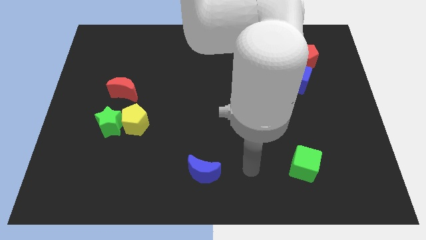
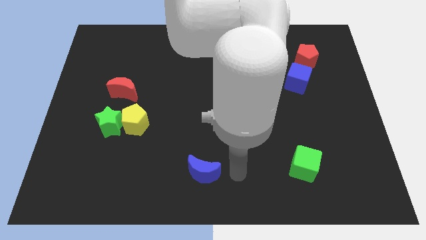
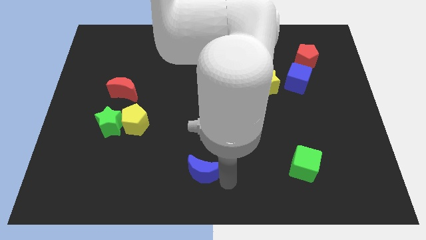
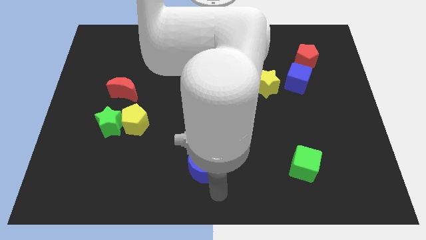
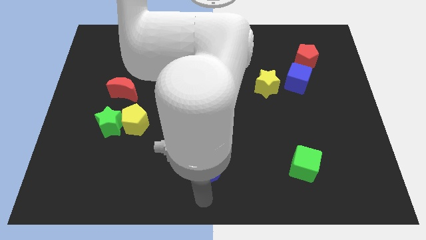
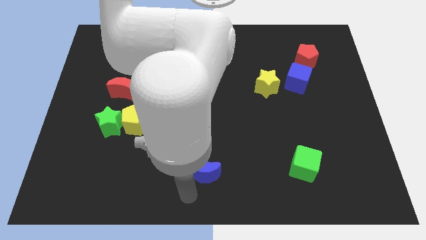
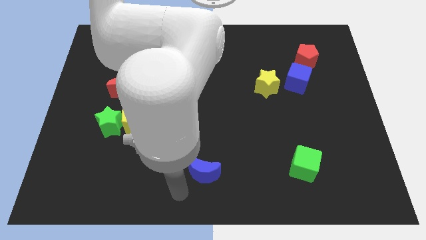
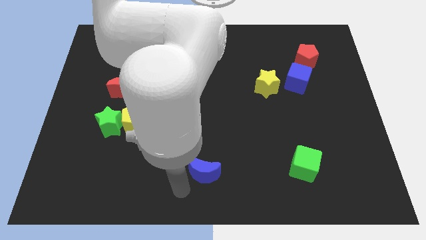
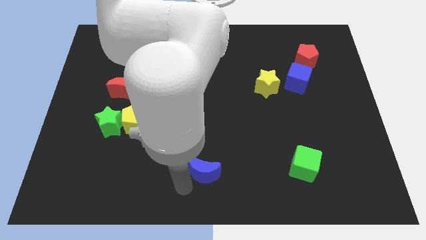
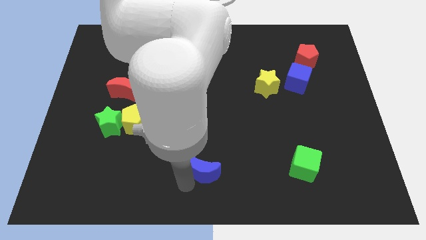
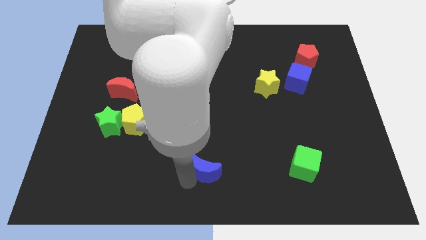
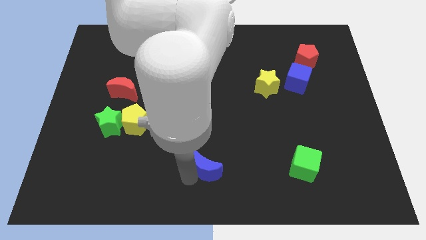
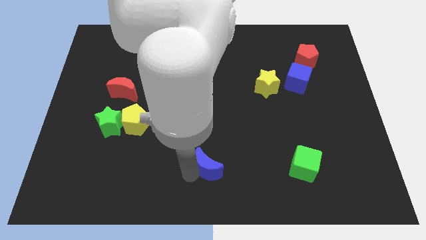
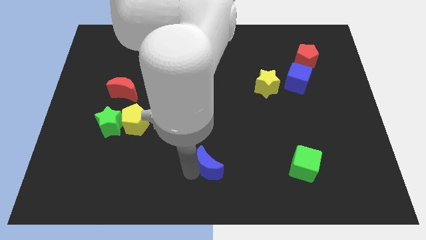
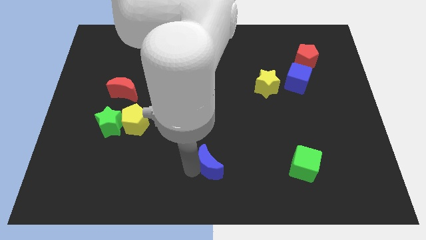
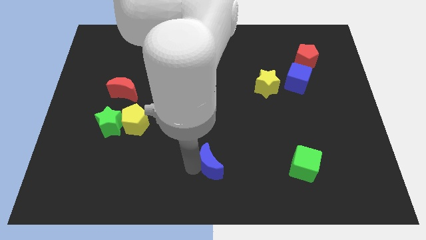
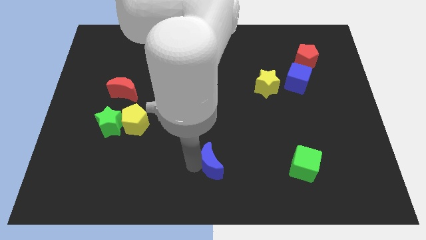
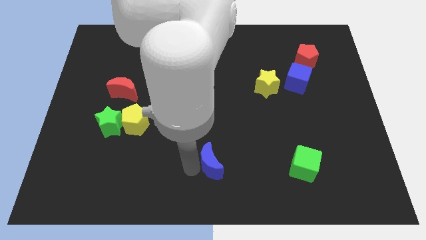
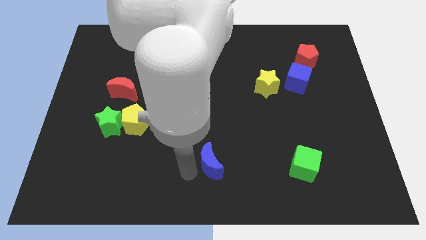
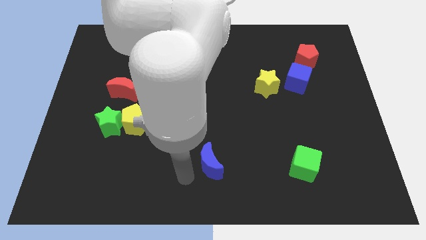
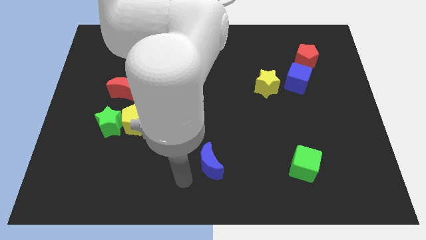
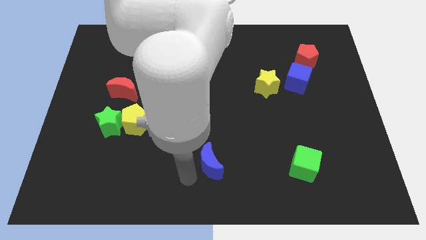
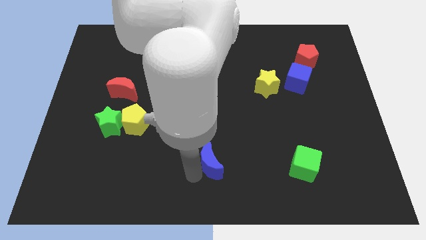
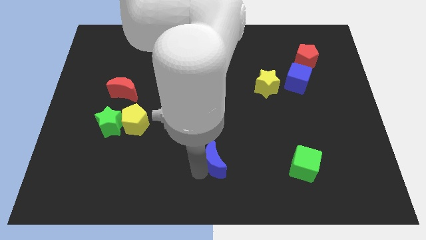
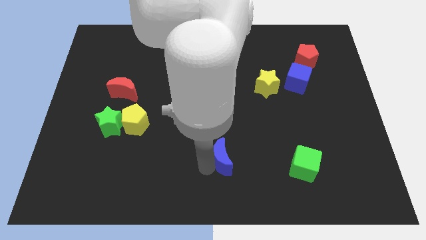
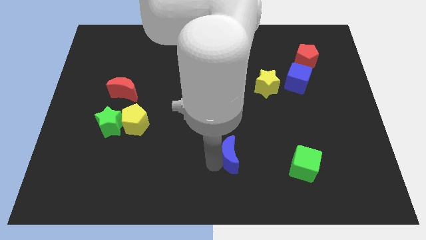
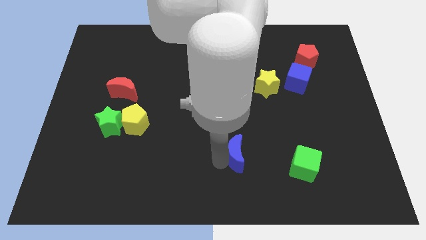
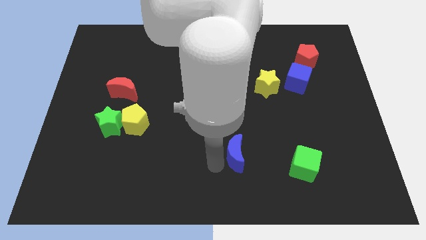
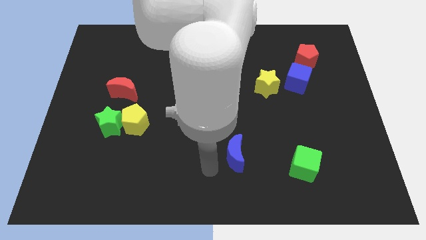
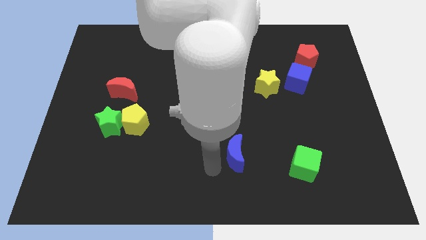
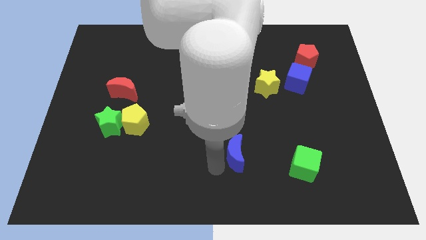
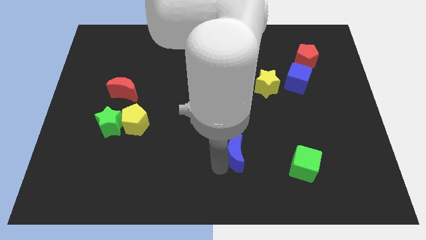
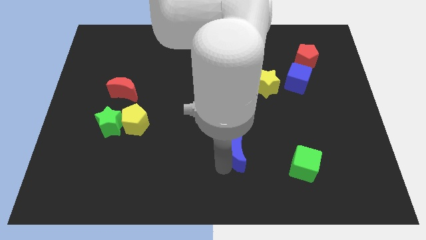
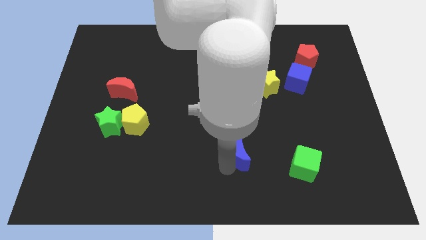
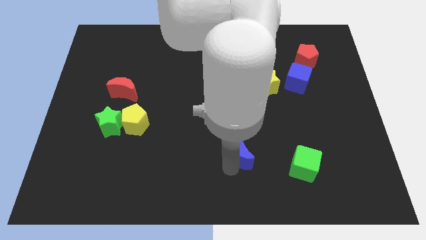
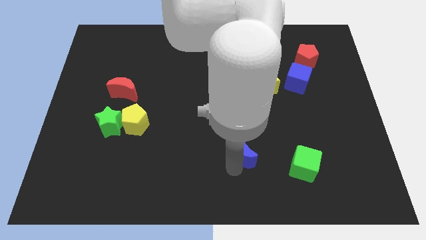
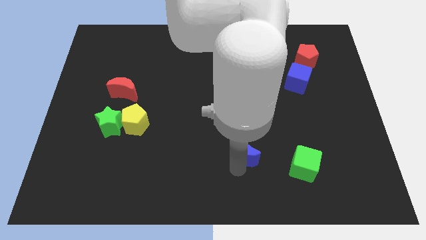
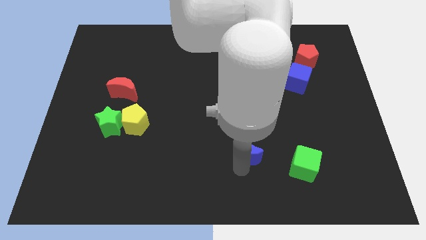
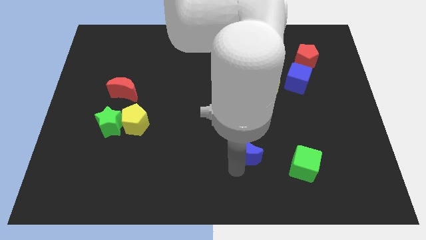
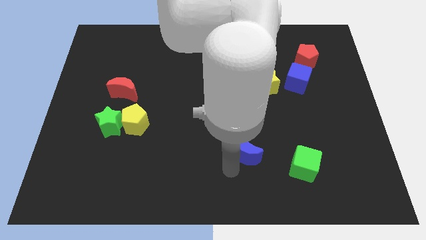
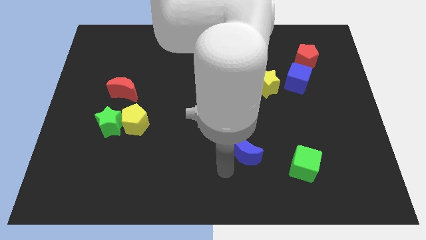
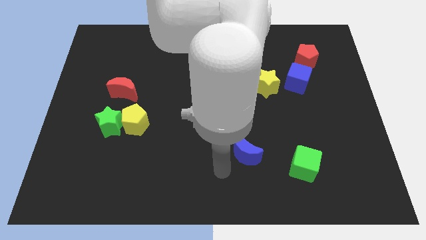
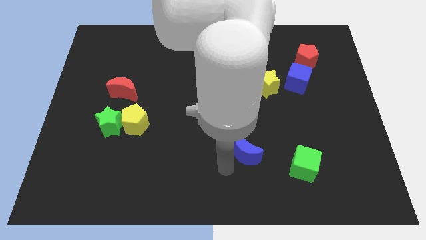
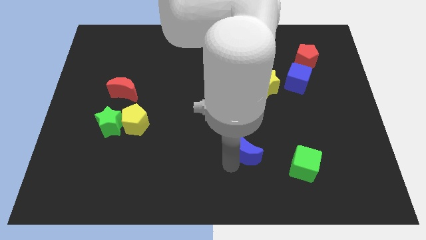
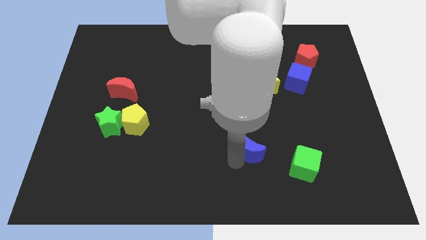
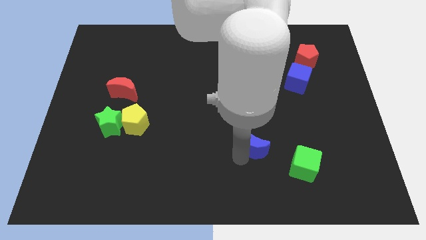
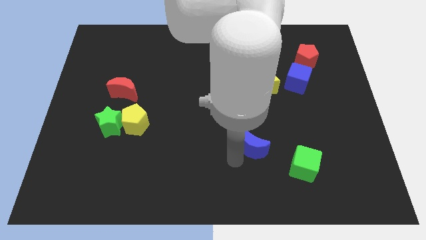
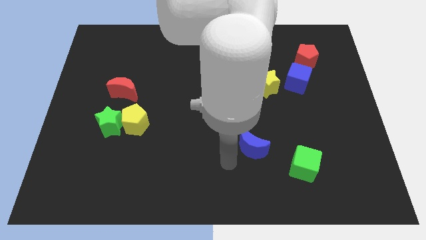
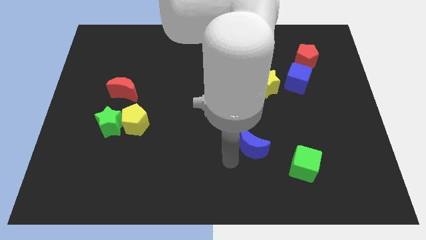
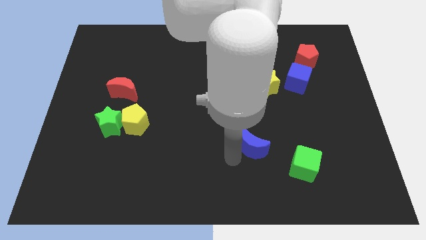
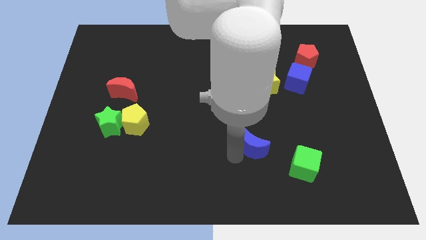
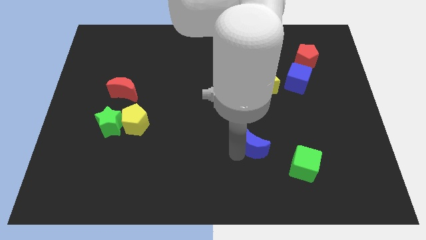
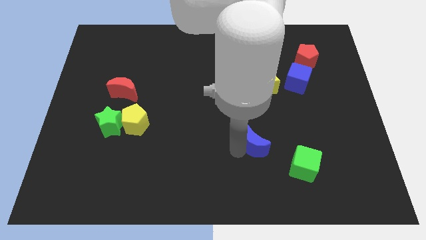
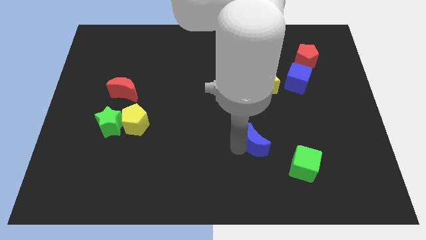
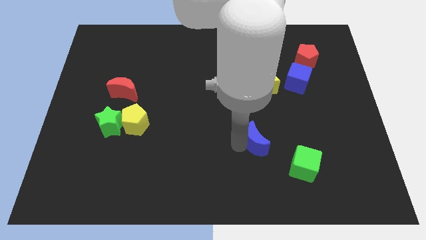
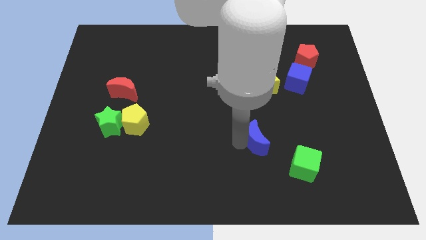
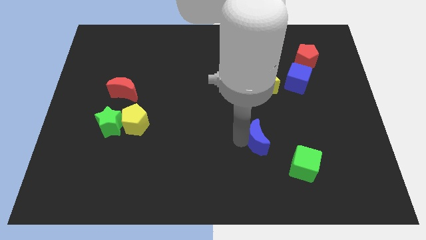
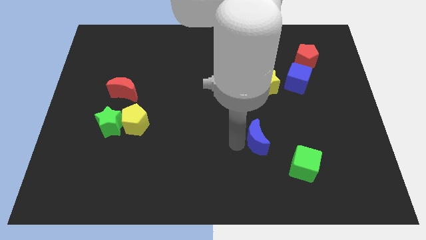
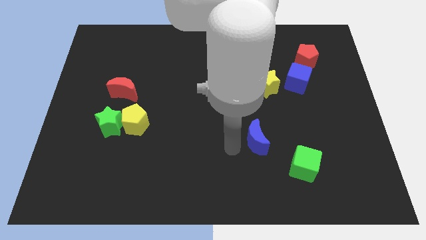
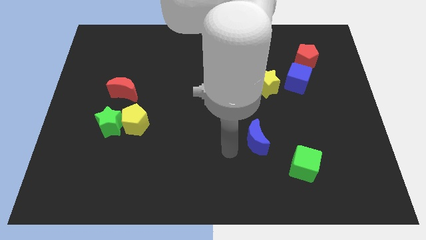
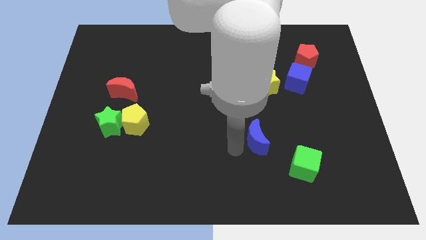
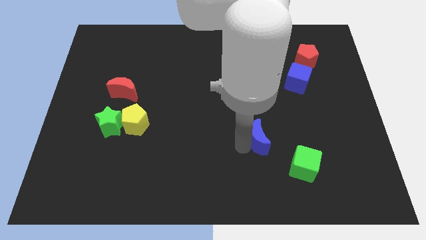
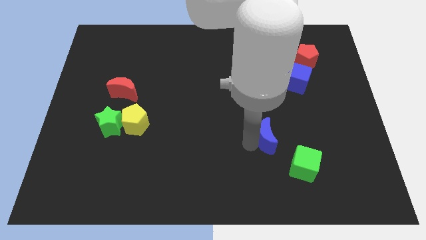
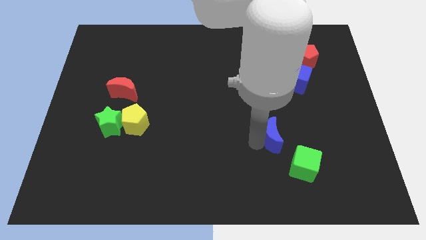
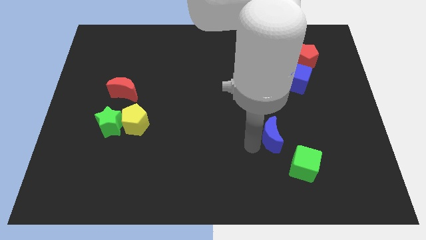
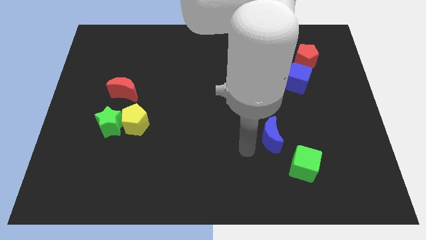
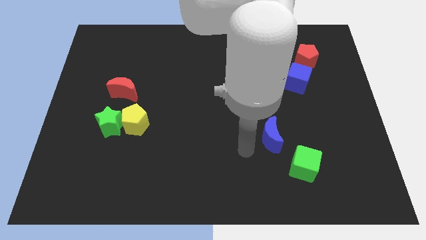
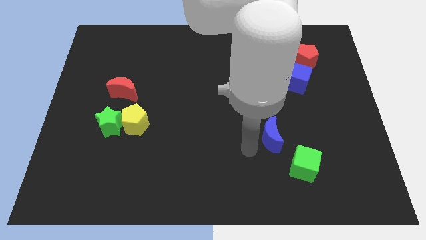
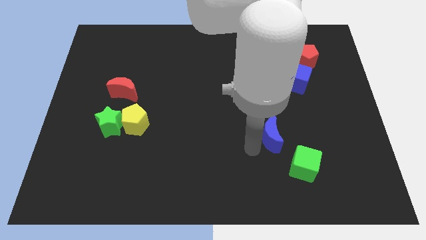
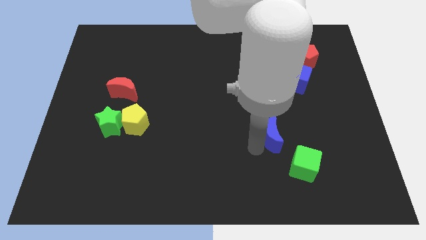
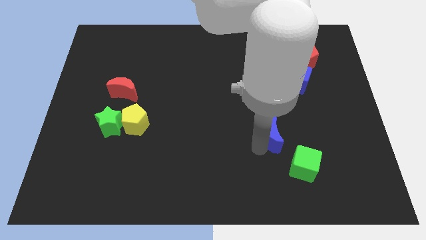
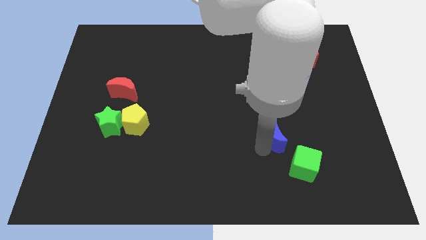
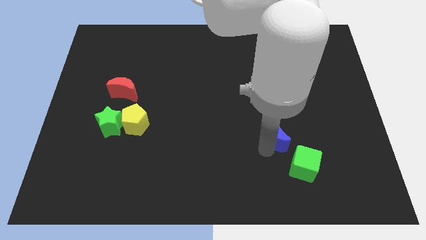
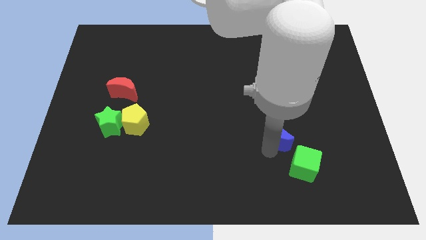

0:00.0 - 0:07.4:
move the blue moon to the top of the green cube
